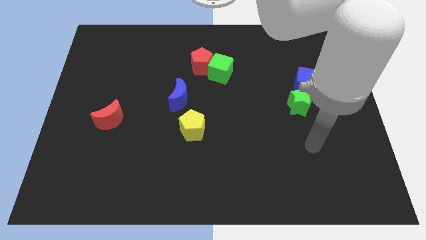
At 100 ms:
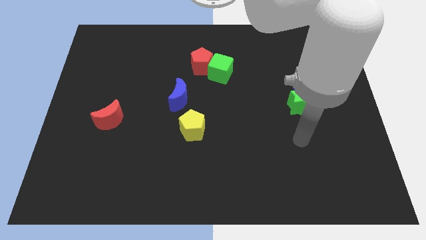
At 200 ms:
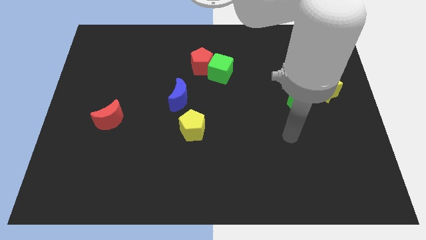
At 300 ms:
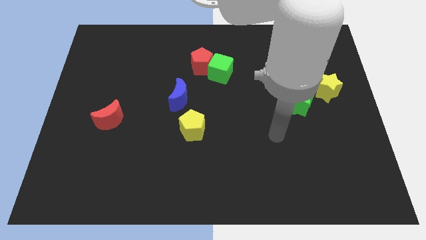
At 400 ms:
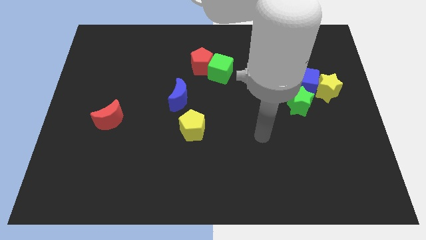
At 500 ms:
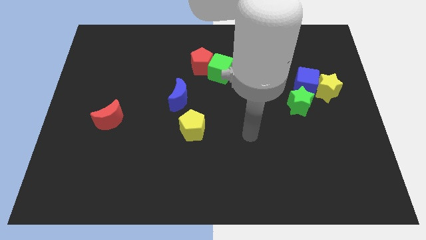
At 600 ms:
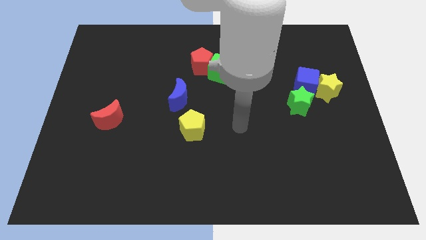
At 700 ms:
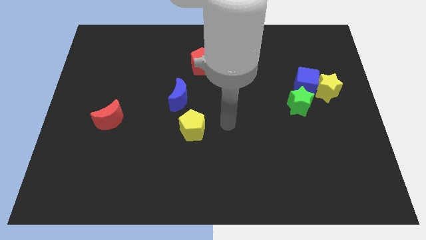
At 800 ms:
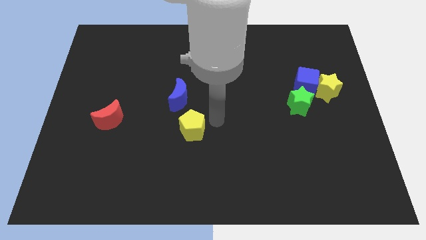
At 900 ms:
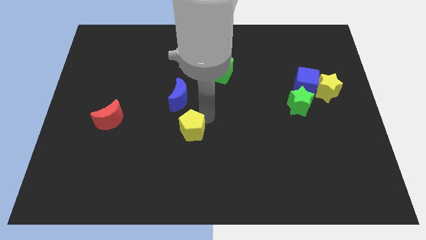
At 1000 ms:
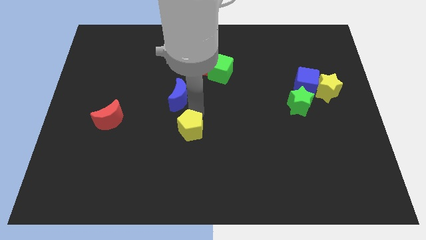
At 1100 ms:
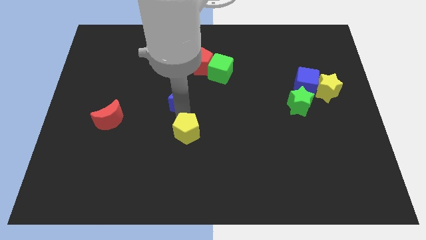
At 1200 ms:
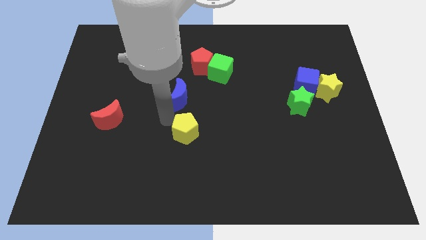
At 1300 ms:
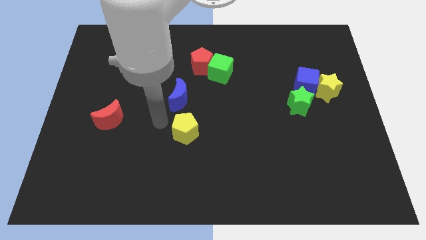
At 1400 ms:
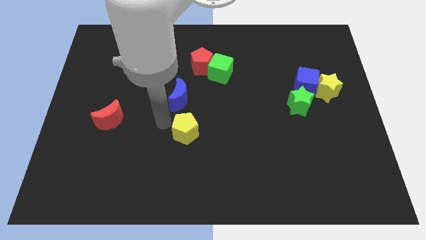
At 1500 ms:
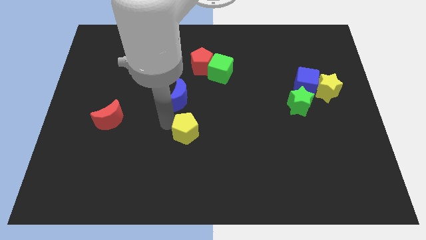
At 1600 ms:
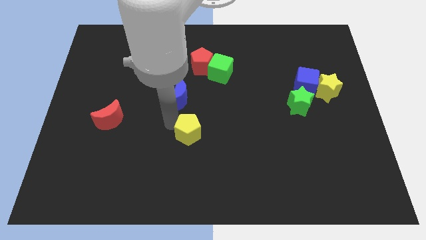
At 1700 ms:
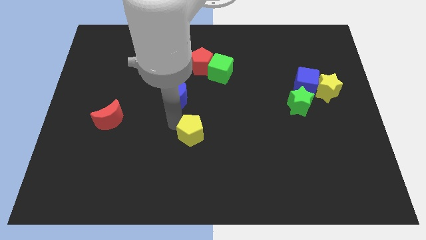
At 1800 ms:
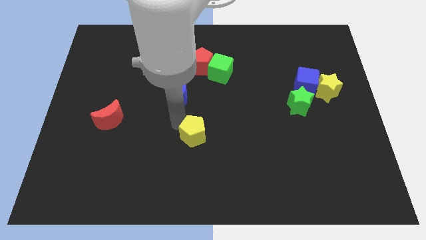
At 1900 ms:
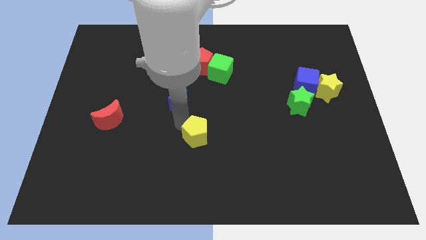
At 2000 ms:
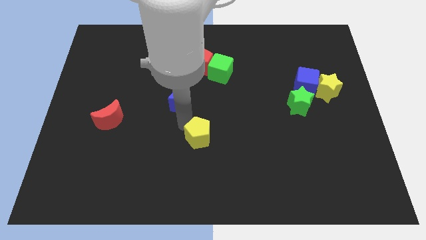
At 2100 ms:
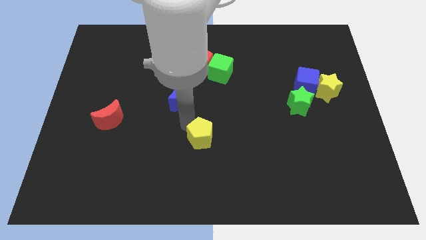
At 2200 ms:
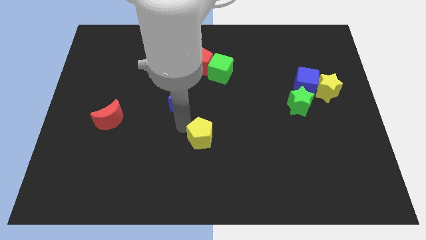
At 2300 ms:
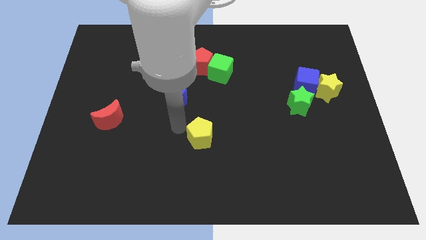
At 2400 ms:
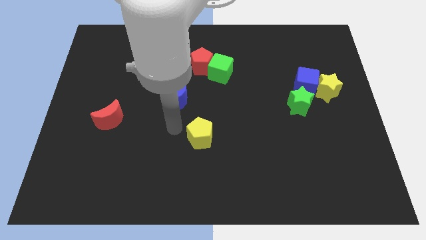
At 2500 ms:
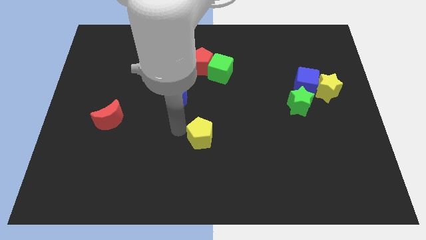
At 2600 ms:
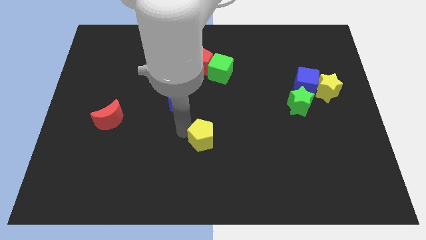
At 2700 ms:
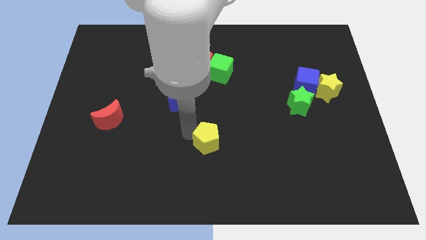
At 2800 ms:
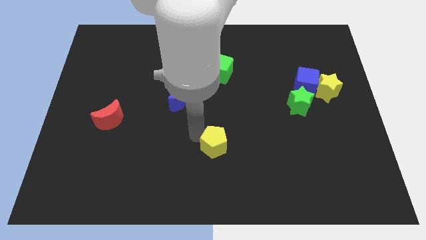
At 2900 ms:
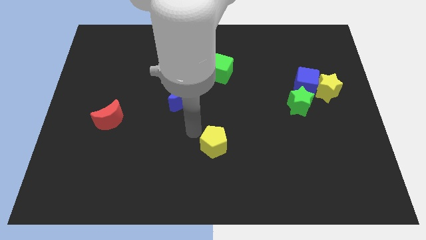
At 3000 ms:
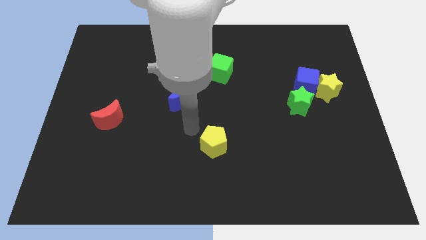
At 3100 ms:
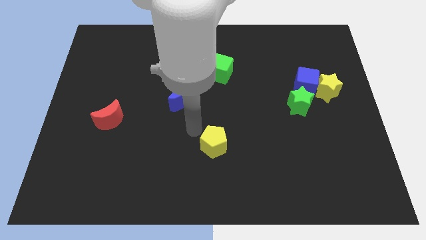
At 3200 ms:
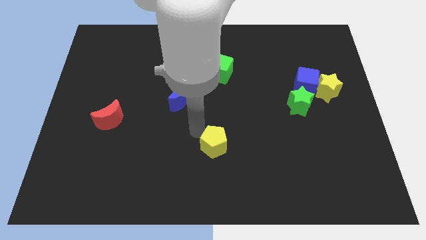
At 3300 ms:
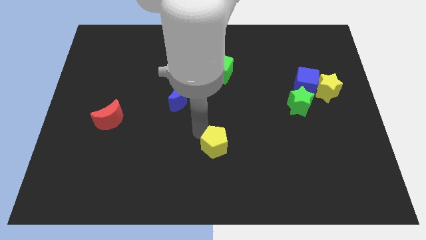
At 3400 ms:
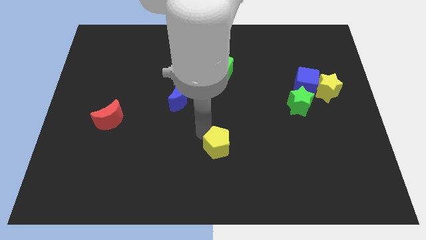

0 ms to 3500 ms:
move the yellow pentagon downwards and then to the right a little

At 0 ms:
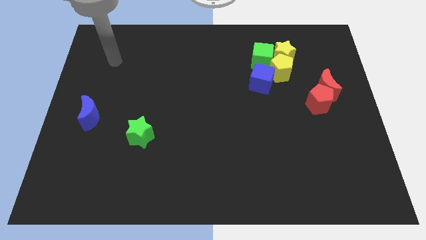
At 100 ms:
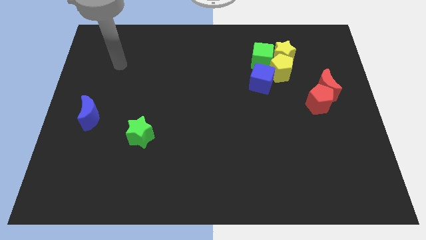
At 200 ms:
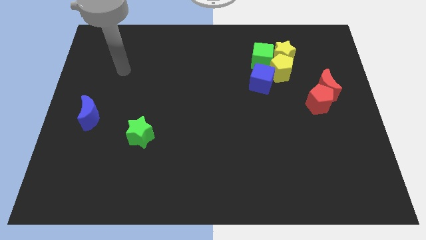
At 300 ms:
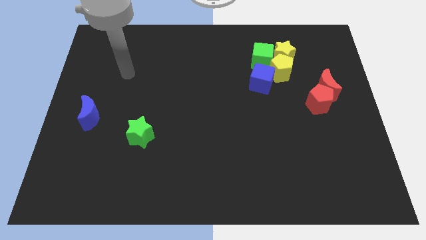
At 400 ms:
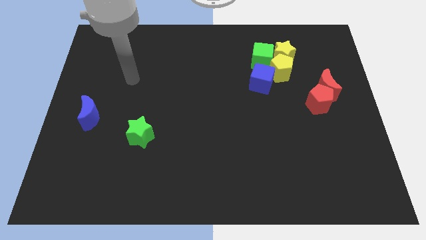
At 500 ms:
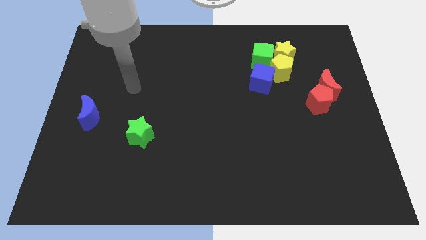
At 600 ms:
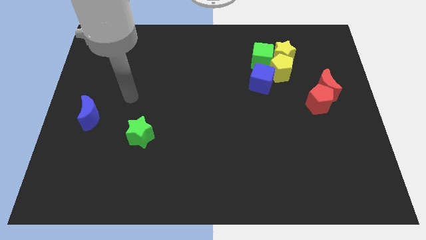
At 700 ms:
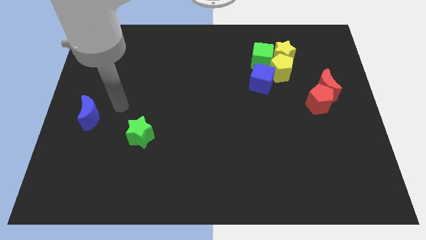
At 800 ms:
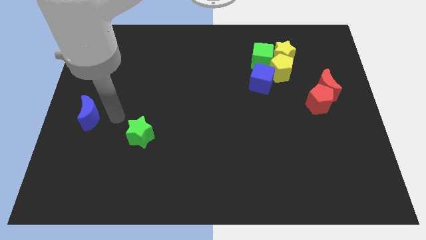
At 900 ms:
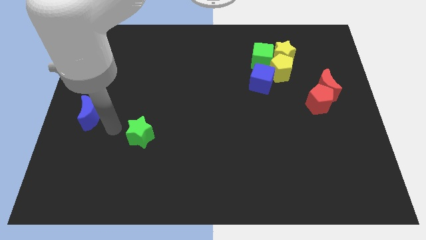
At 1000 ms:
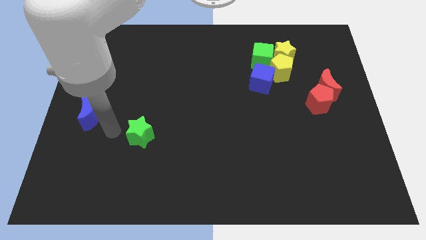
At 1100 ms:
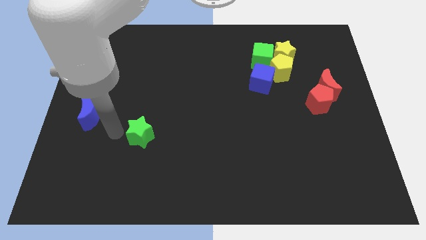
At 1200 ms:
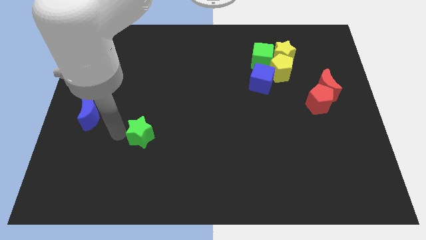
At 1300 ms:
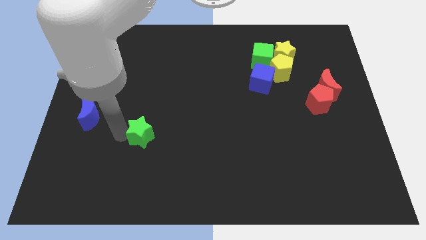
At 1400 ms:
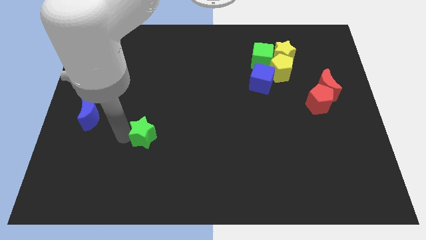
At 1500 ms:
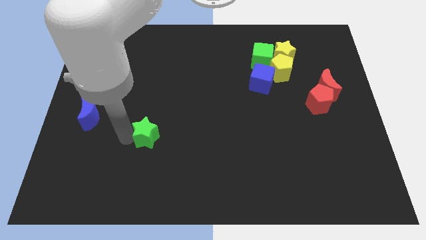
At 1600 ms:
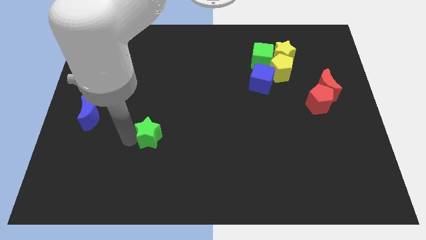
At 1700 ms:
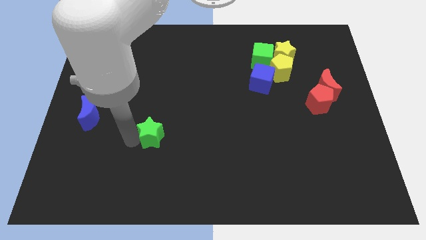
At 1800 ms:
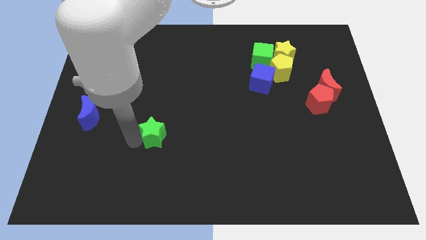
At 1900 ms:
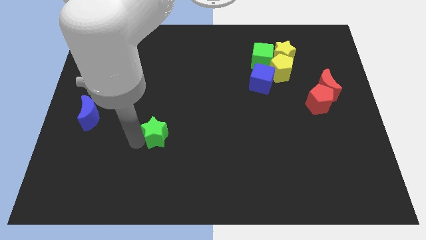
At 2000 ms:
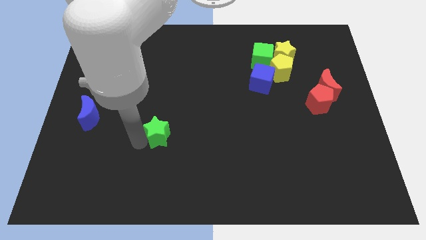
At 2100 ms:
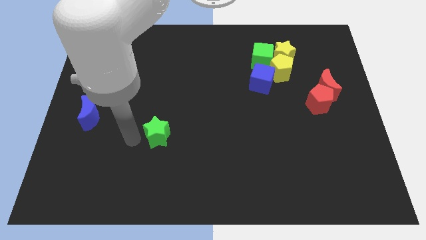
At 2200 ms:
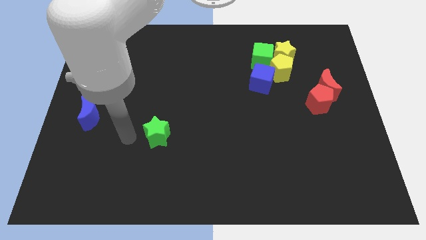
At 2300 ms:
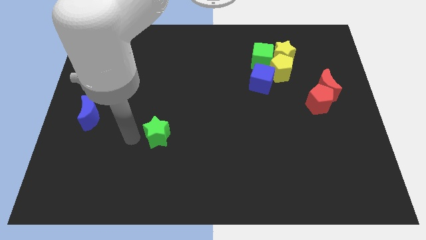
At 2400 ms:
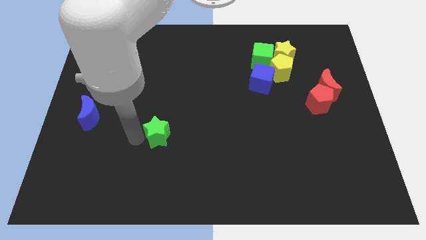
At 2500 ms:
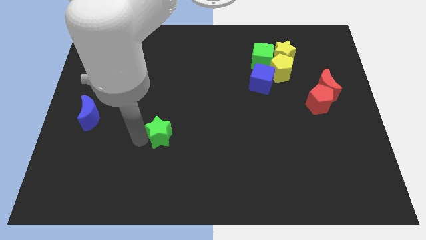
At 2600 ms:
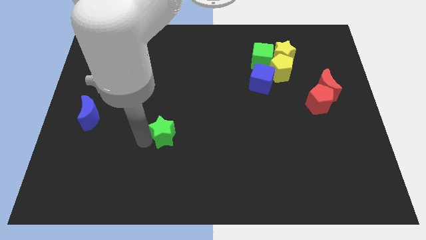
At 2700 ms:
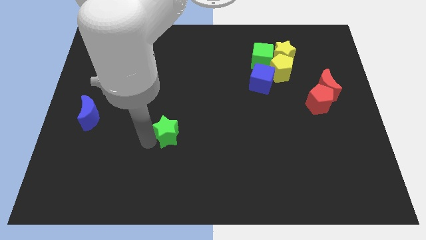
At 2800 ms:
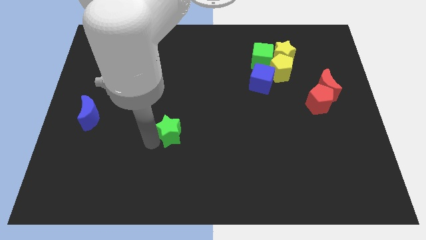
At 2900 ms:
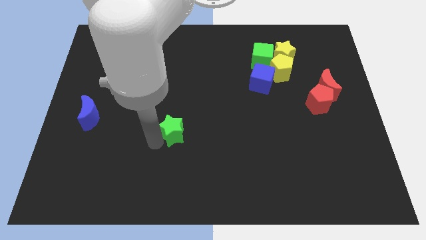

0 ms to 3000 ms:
move the green star a little to the right

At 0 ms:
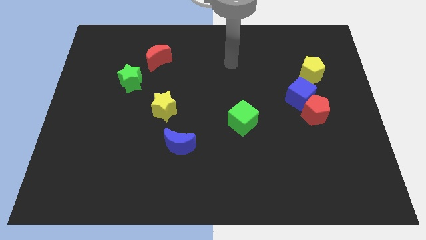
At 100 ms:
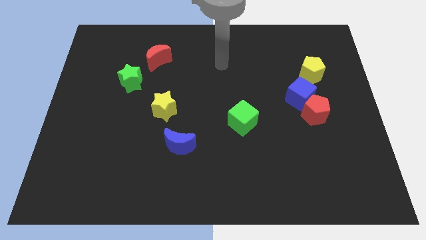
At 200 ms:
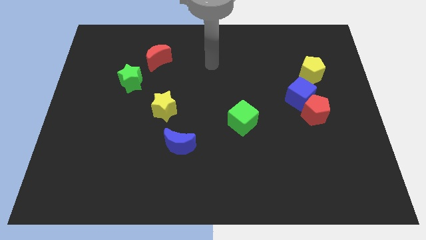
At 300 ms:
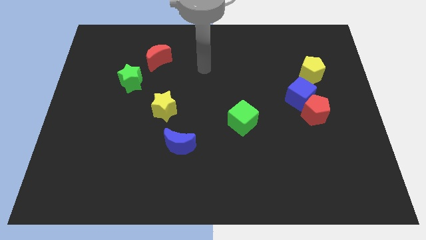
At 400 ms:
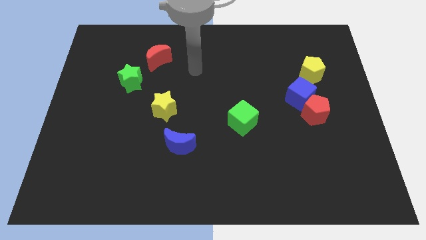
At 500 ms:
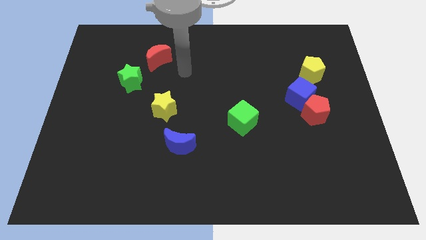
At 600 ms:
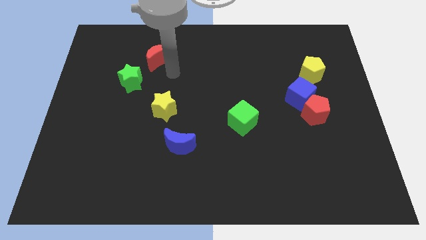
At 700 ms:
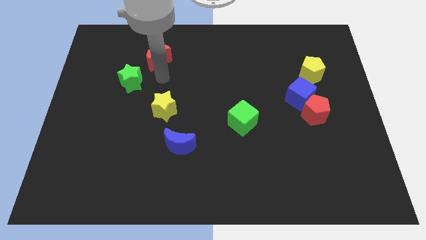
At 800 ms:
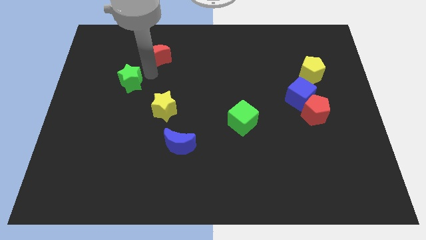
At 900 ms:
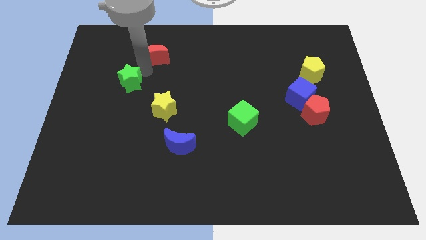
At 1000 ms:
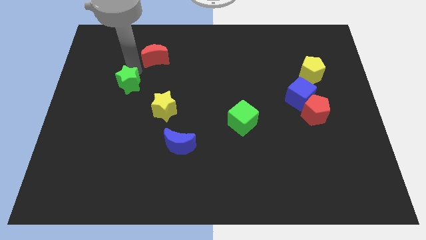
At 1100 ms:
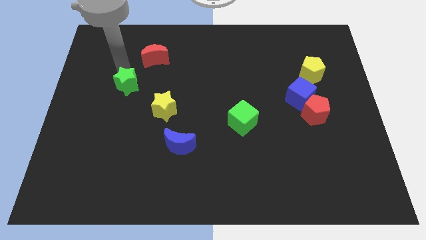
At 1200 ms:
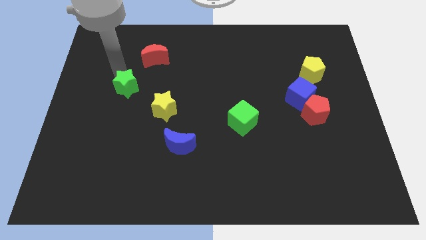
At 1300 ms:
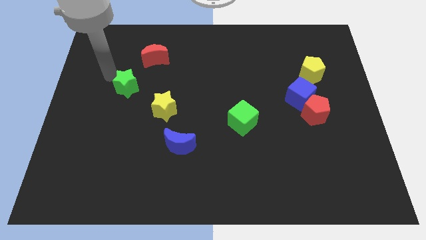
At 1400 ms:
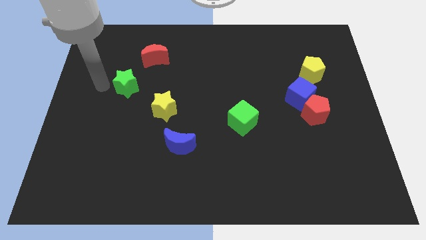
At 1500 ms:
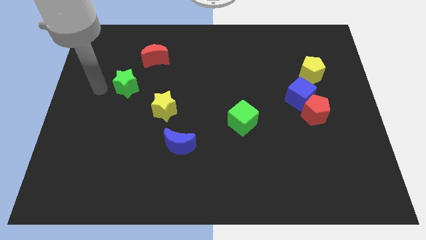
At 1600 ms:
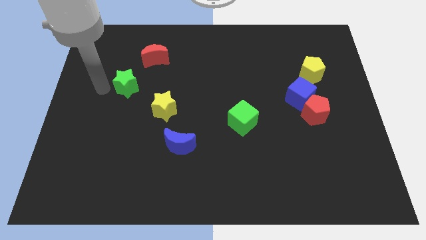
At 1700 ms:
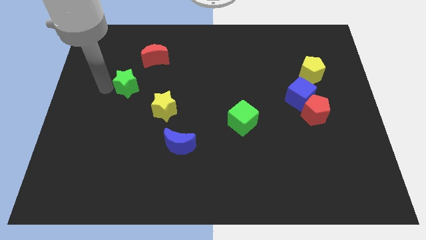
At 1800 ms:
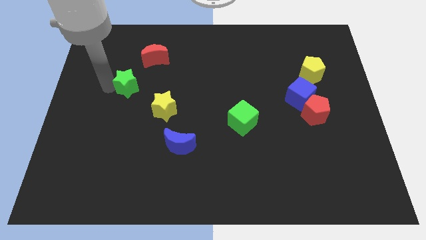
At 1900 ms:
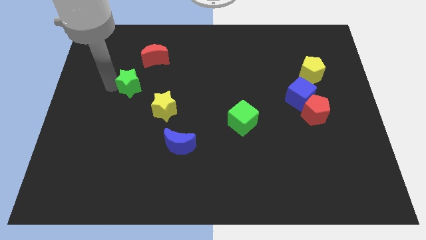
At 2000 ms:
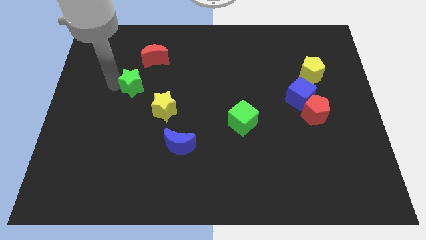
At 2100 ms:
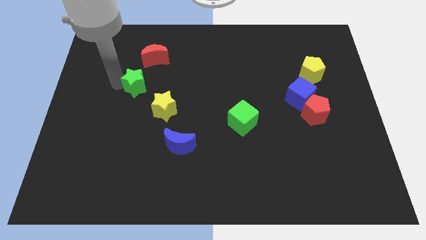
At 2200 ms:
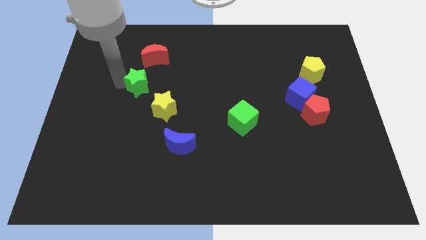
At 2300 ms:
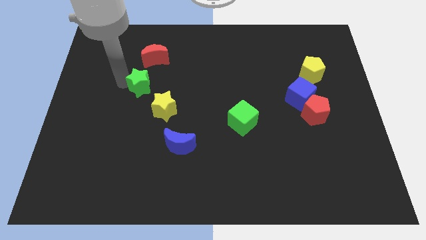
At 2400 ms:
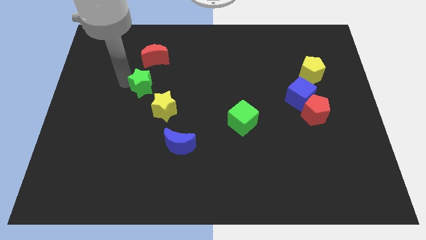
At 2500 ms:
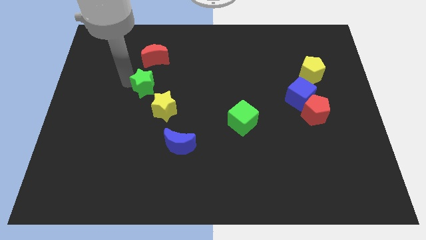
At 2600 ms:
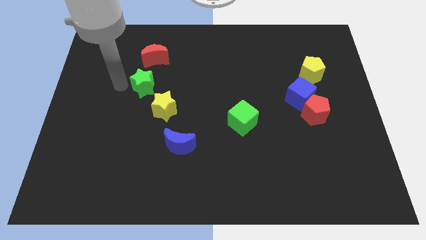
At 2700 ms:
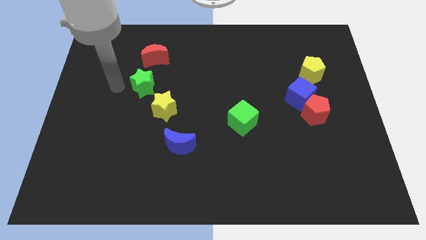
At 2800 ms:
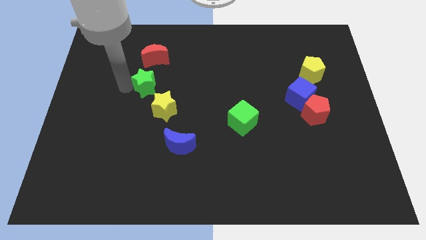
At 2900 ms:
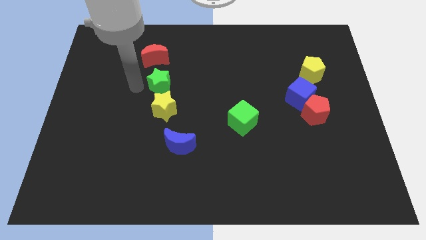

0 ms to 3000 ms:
slightly push the green star to the right
